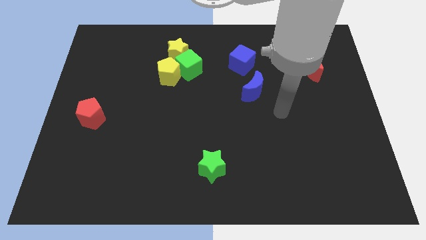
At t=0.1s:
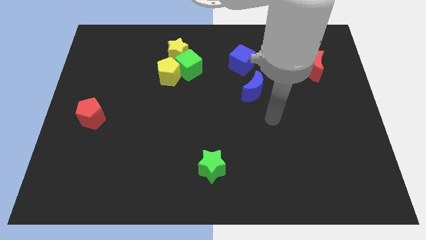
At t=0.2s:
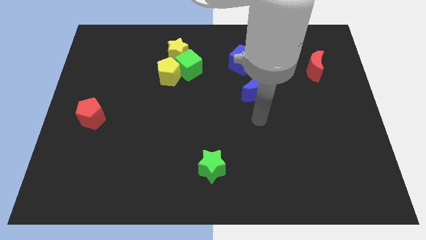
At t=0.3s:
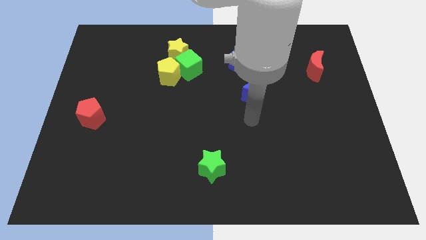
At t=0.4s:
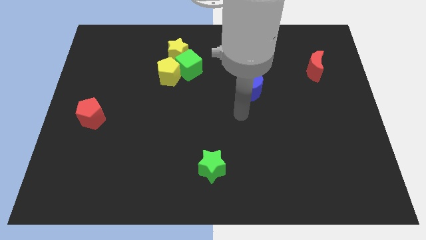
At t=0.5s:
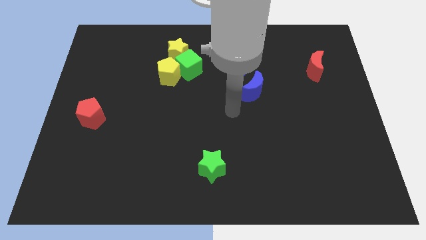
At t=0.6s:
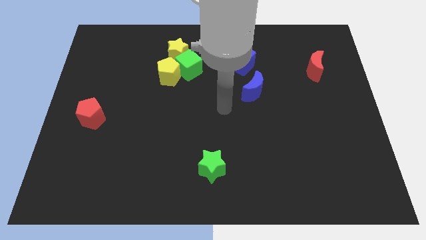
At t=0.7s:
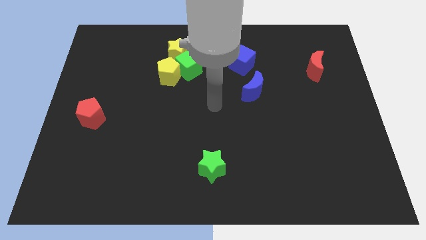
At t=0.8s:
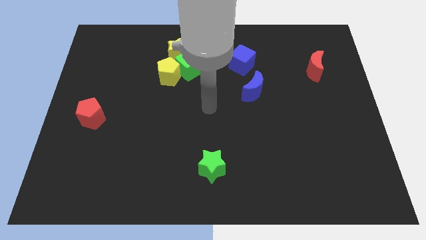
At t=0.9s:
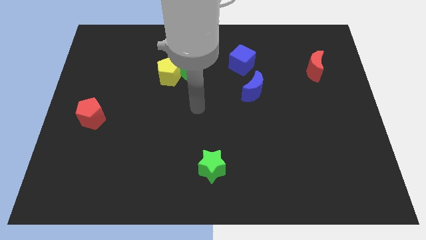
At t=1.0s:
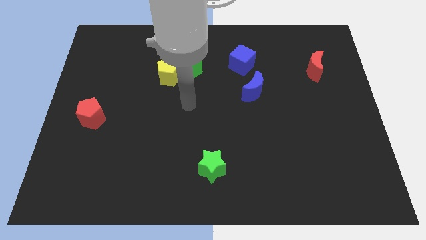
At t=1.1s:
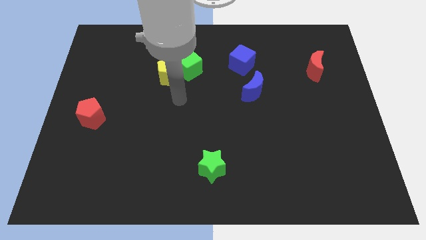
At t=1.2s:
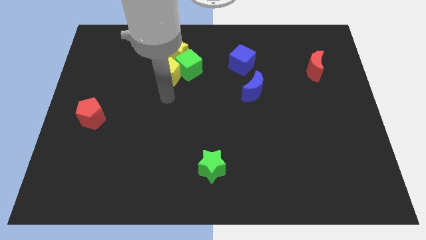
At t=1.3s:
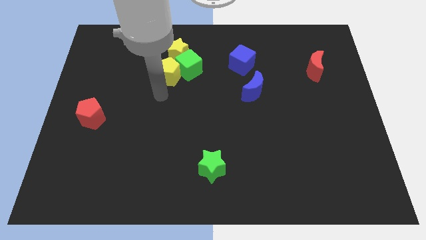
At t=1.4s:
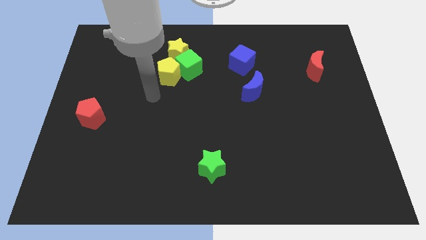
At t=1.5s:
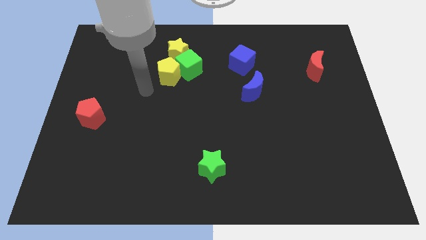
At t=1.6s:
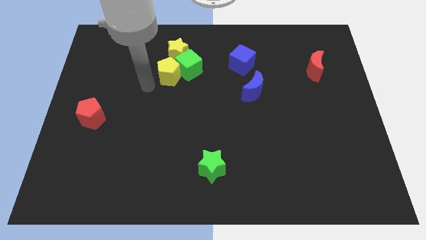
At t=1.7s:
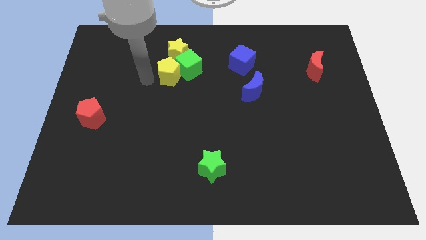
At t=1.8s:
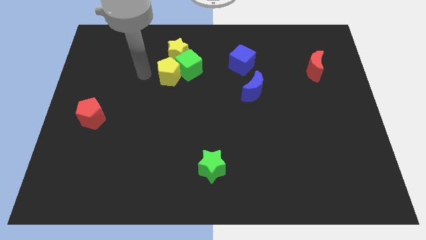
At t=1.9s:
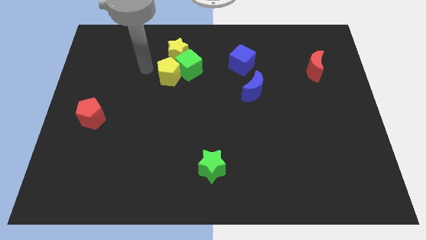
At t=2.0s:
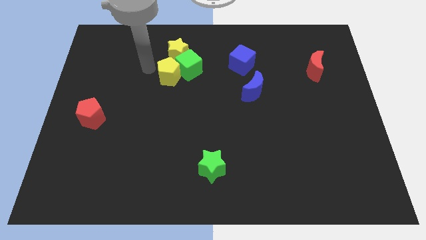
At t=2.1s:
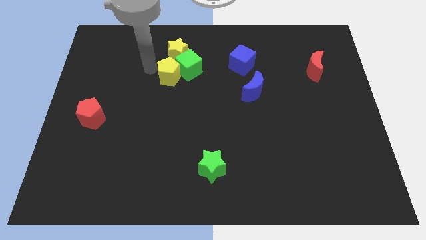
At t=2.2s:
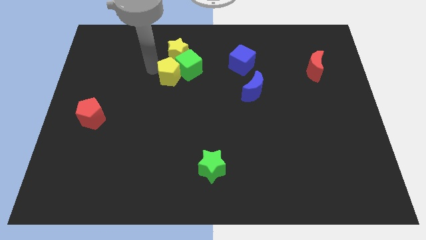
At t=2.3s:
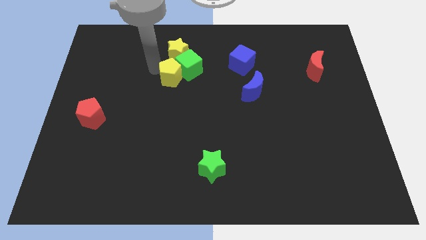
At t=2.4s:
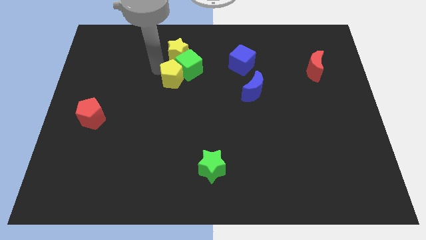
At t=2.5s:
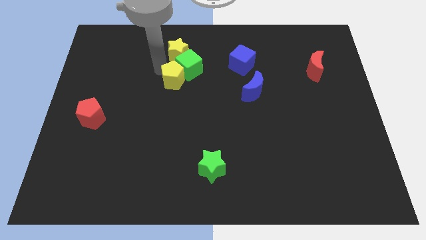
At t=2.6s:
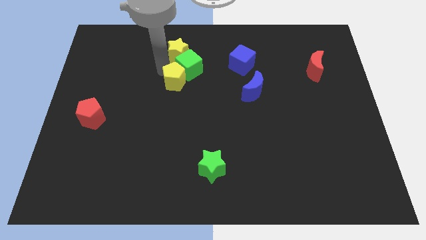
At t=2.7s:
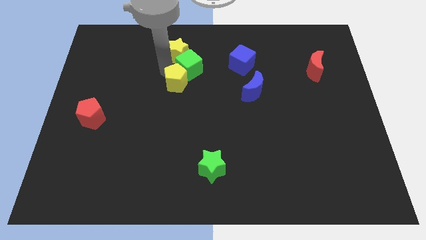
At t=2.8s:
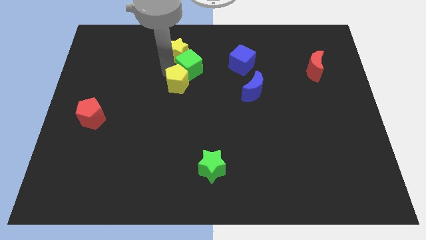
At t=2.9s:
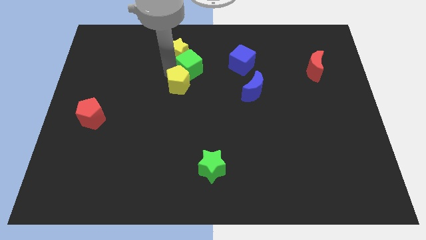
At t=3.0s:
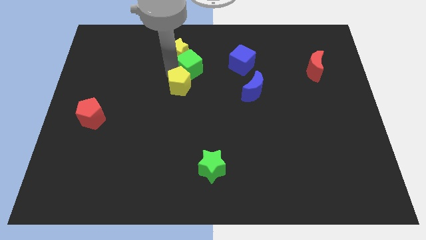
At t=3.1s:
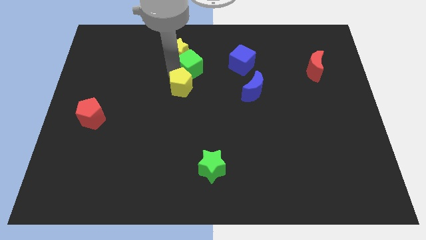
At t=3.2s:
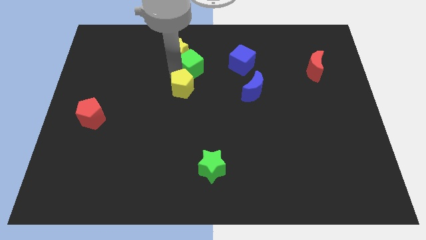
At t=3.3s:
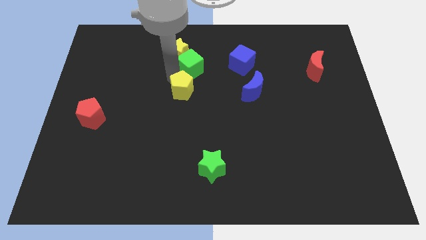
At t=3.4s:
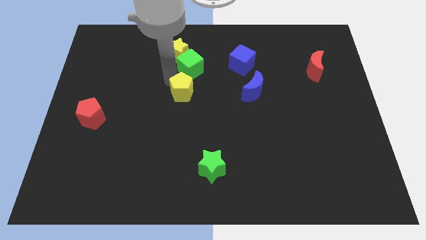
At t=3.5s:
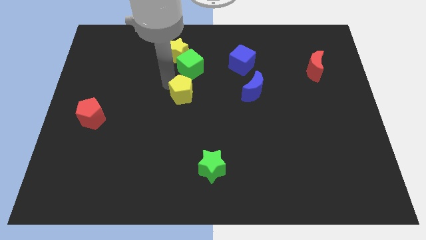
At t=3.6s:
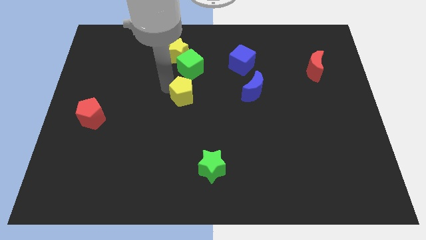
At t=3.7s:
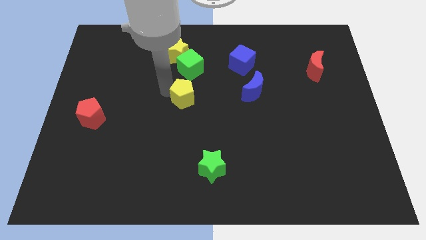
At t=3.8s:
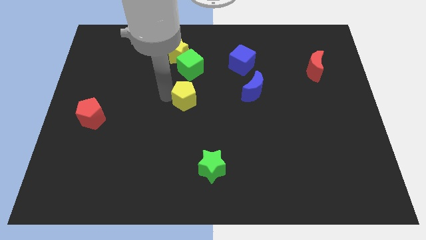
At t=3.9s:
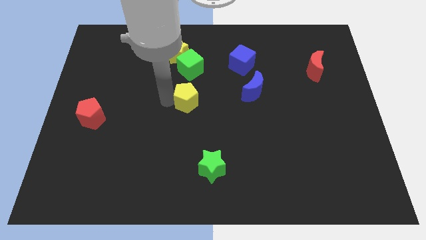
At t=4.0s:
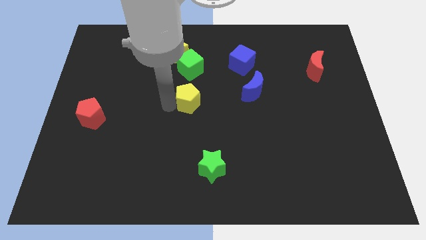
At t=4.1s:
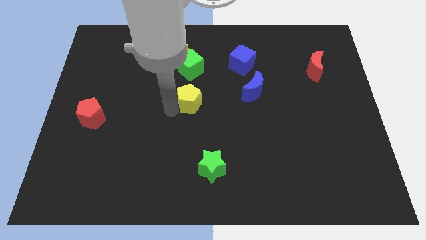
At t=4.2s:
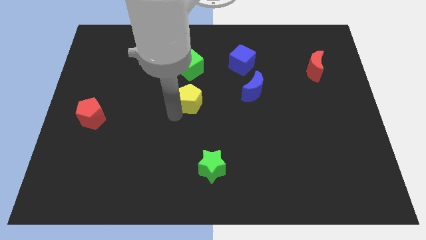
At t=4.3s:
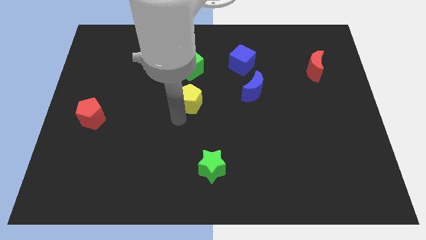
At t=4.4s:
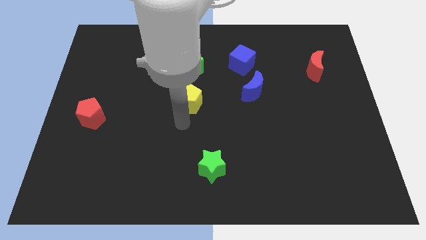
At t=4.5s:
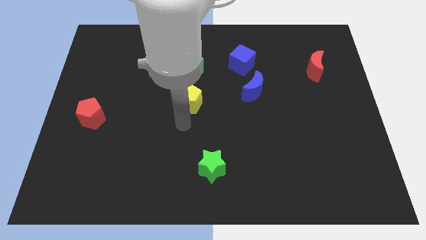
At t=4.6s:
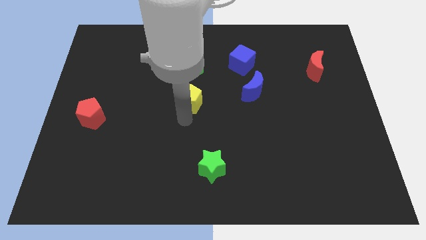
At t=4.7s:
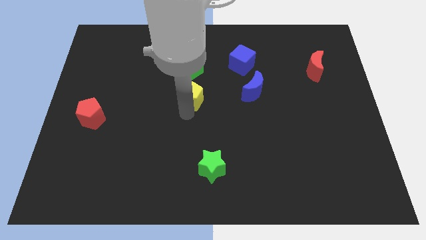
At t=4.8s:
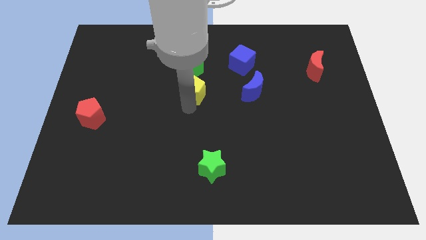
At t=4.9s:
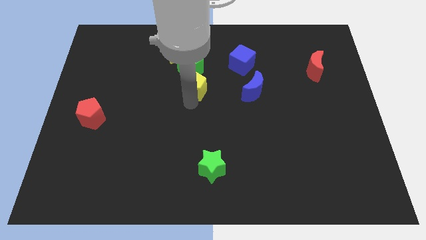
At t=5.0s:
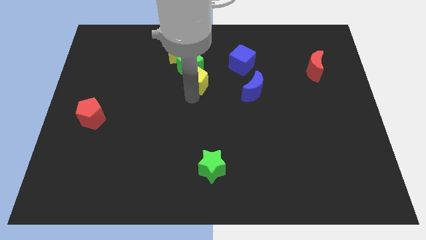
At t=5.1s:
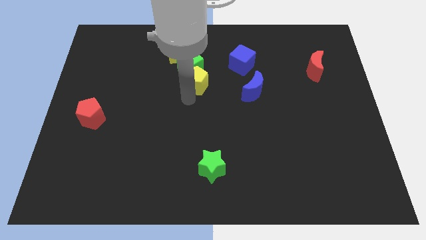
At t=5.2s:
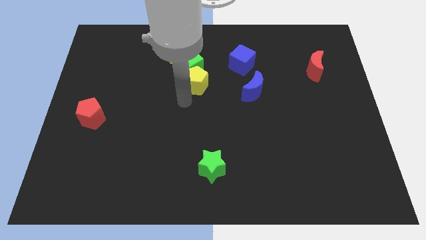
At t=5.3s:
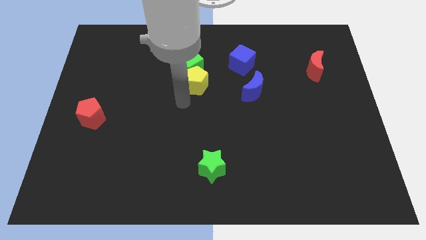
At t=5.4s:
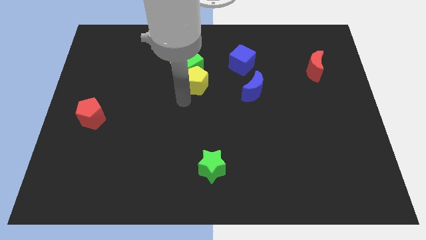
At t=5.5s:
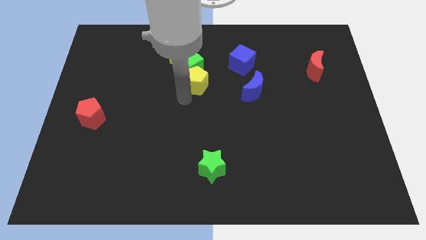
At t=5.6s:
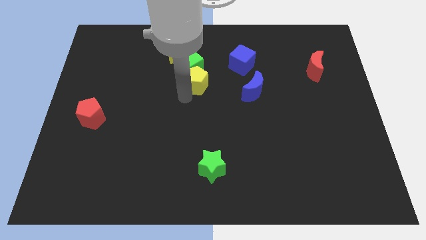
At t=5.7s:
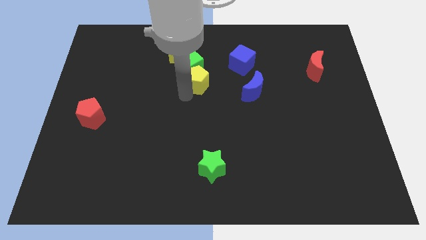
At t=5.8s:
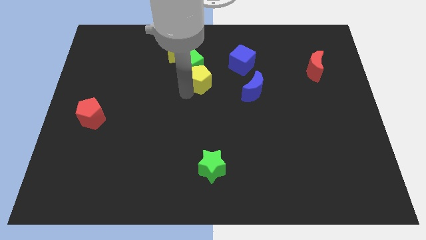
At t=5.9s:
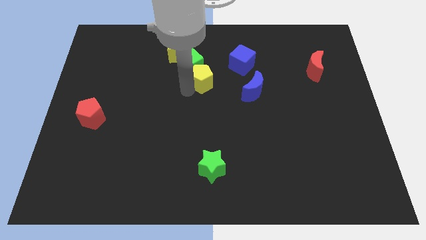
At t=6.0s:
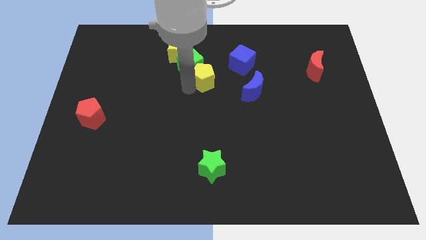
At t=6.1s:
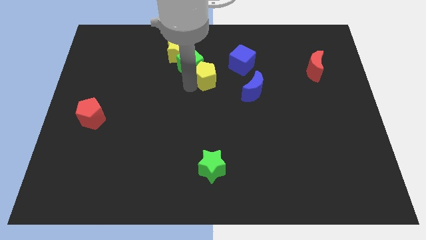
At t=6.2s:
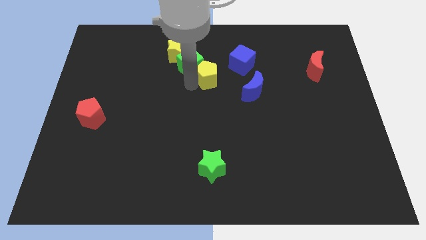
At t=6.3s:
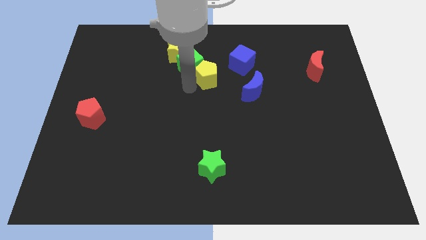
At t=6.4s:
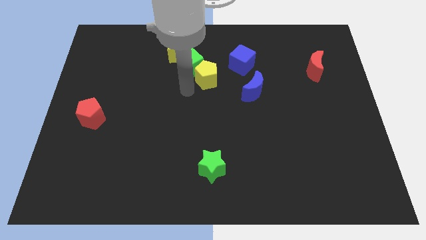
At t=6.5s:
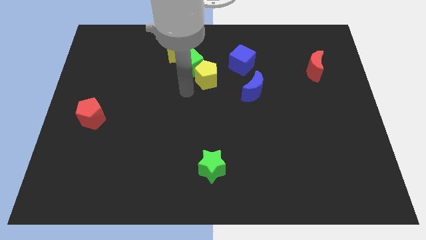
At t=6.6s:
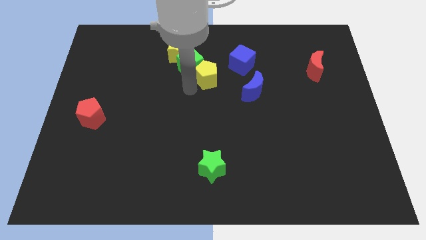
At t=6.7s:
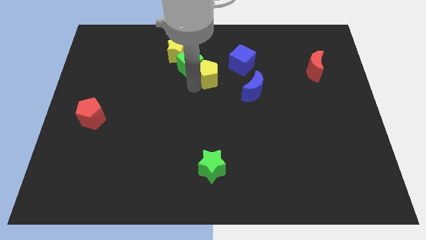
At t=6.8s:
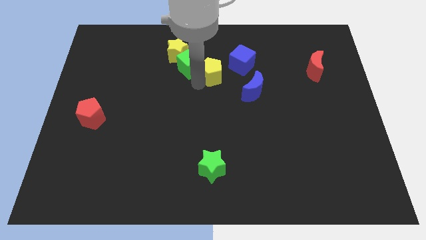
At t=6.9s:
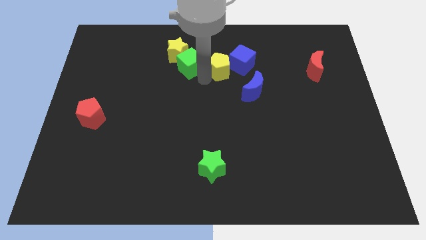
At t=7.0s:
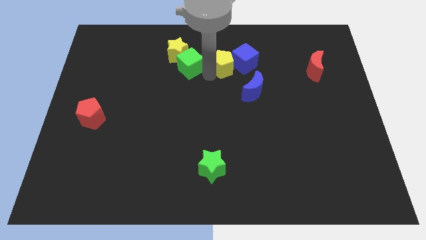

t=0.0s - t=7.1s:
put the yellow pentagon towards the blue cube

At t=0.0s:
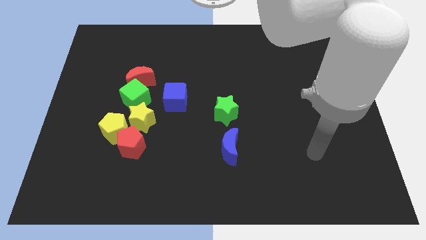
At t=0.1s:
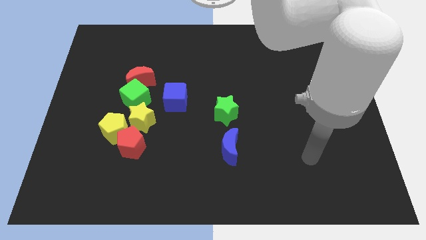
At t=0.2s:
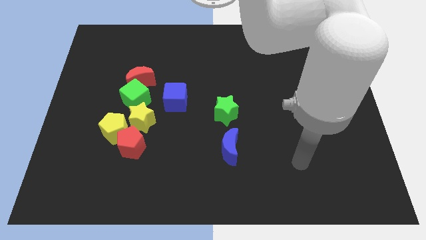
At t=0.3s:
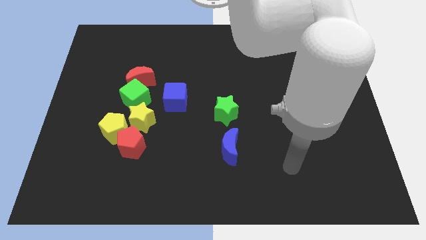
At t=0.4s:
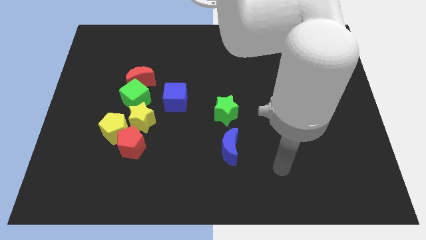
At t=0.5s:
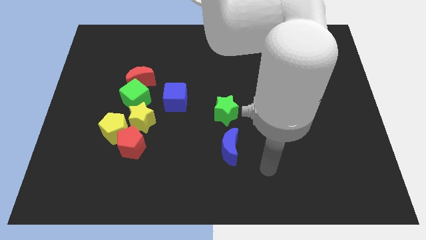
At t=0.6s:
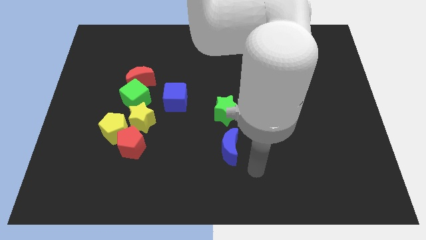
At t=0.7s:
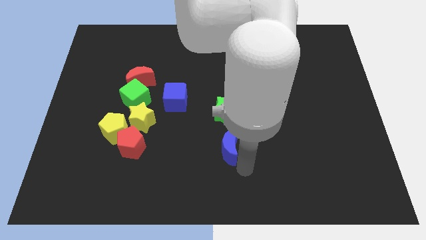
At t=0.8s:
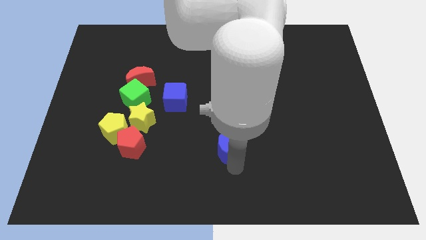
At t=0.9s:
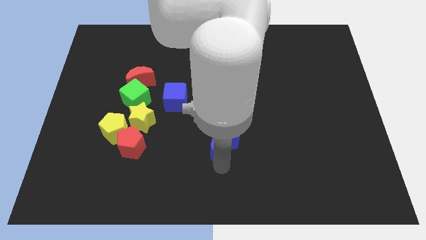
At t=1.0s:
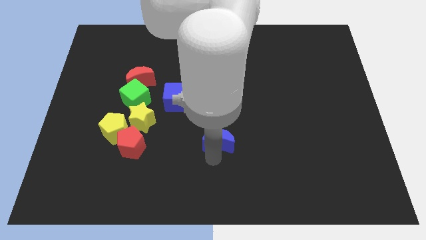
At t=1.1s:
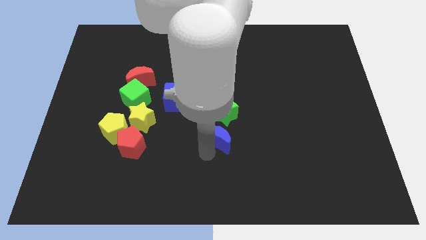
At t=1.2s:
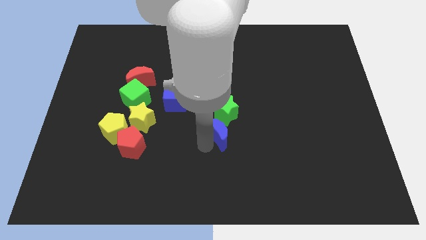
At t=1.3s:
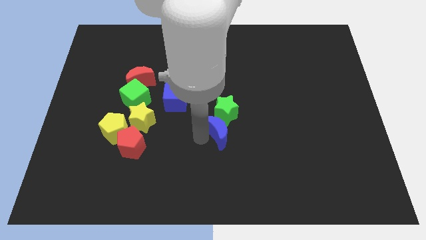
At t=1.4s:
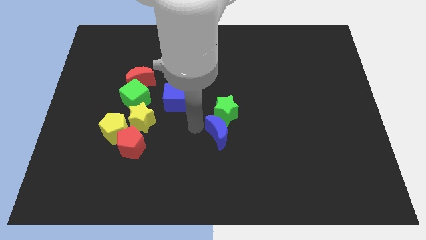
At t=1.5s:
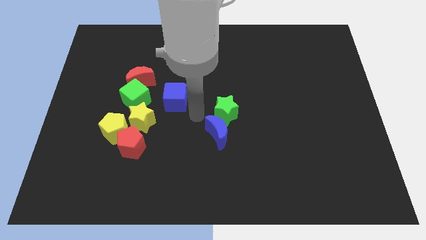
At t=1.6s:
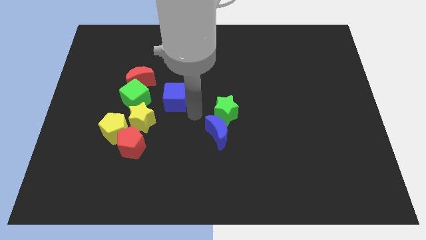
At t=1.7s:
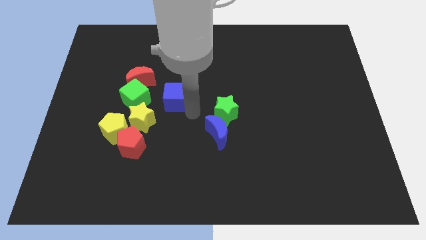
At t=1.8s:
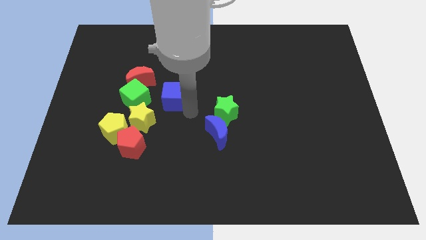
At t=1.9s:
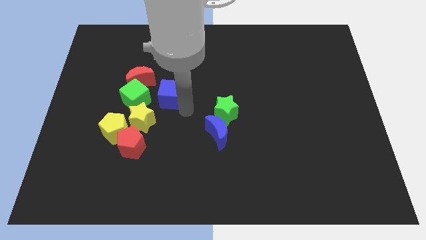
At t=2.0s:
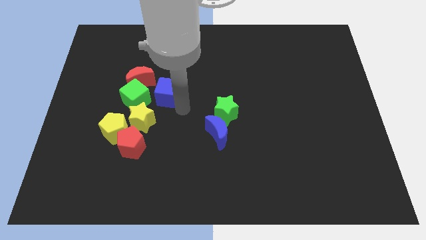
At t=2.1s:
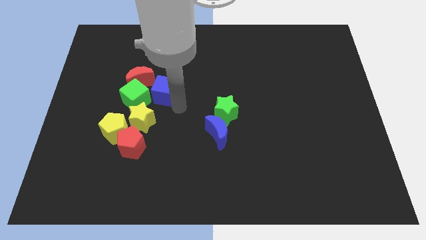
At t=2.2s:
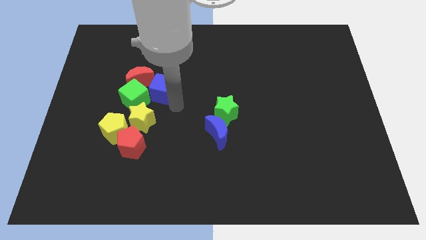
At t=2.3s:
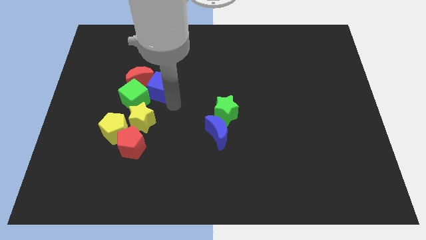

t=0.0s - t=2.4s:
put the blue cube towards the red moon
